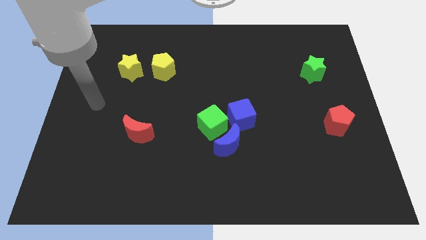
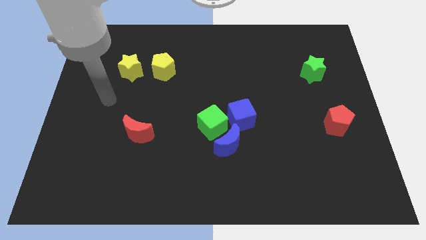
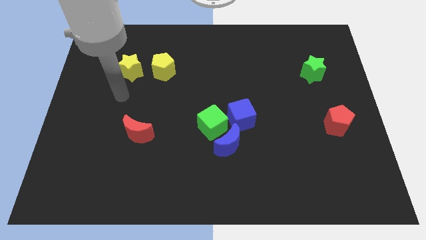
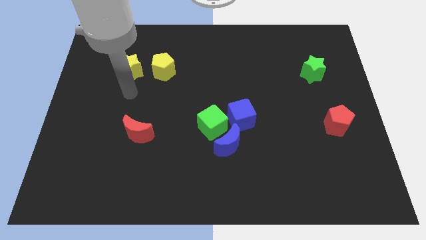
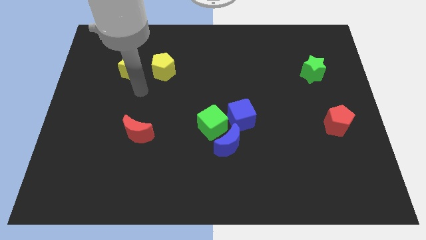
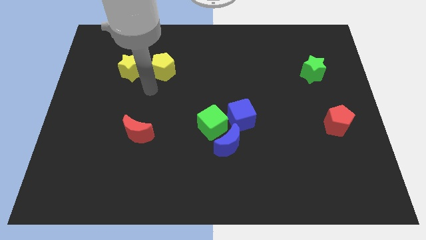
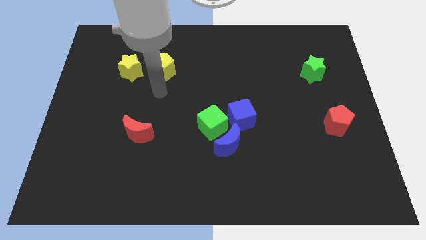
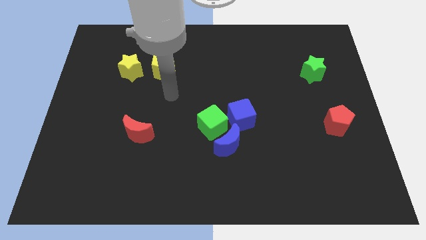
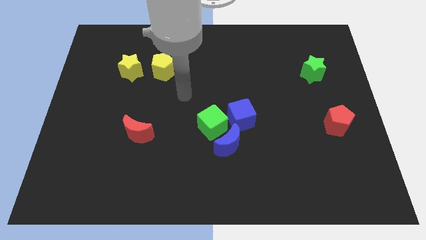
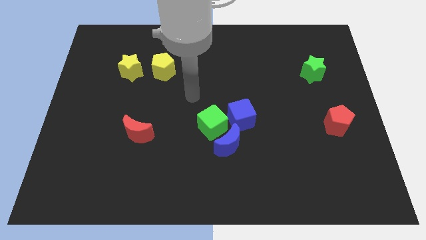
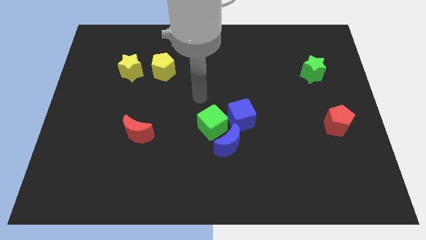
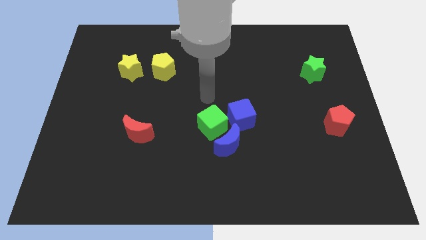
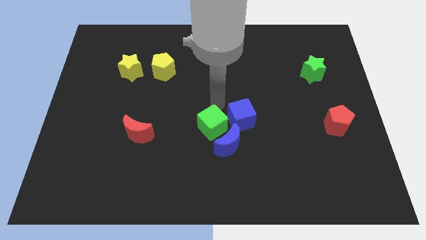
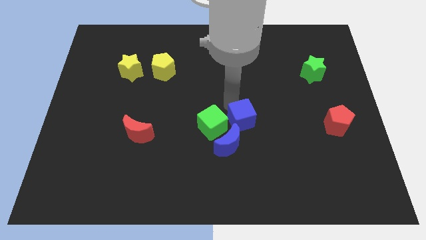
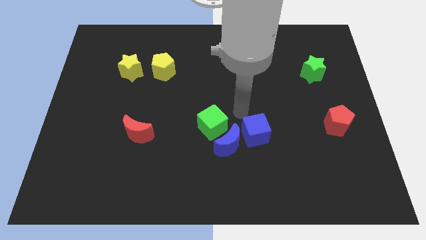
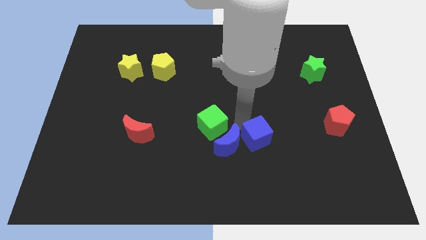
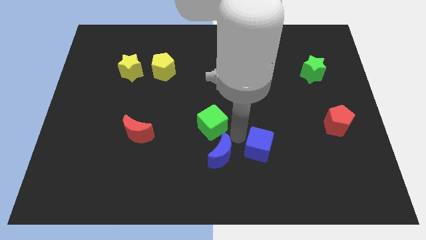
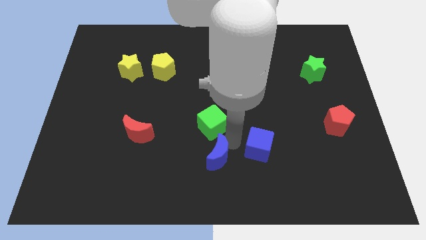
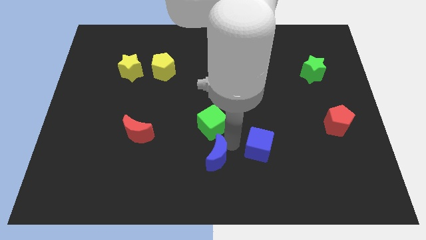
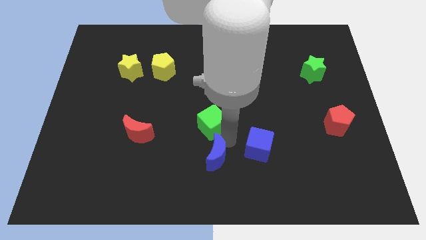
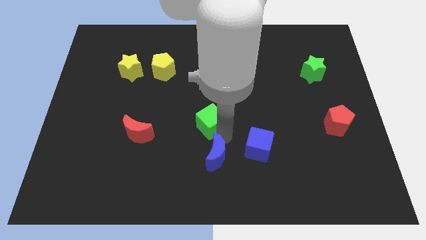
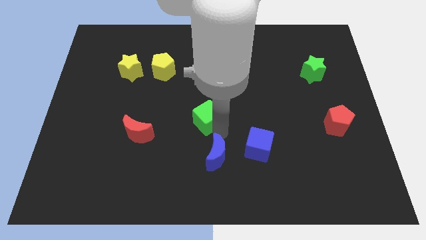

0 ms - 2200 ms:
separate the green cube from the blue moon and blue cube

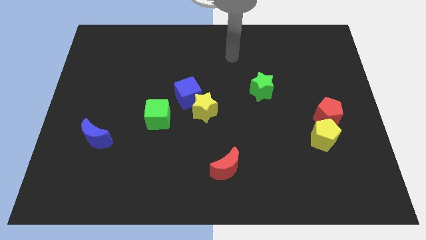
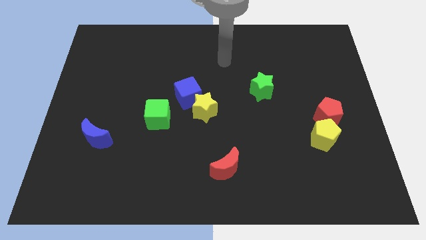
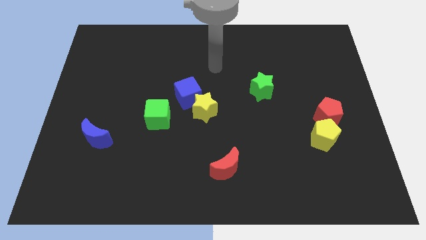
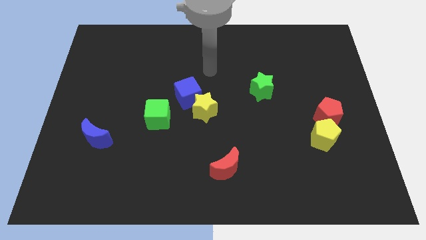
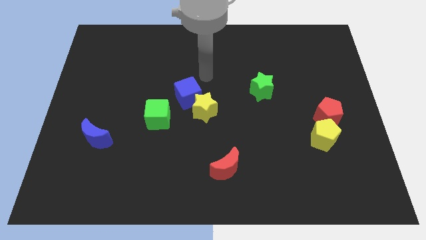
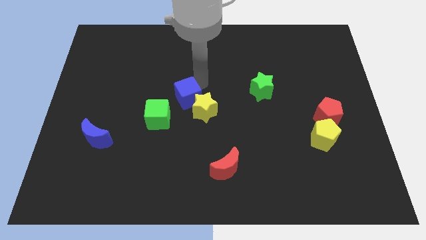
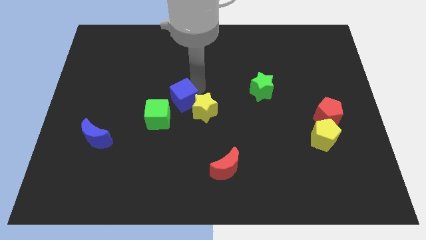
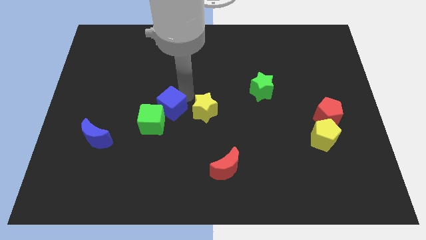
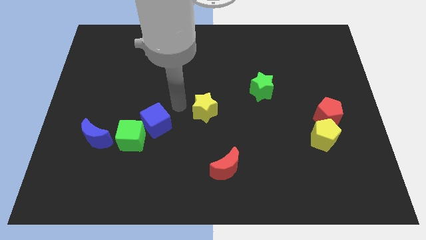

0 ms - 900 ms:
pull the yellow star apart from the blue cube

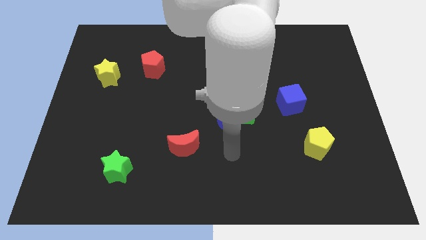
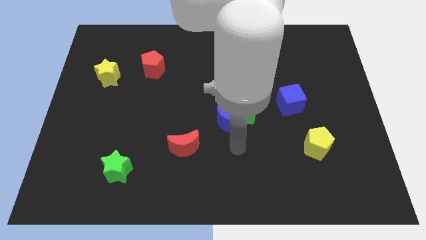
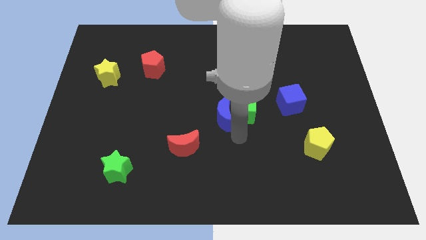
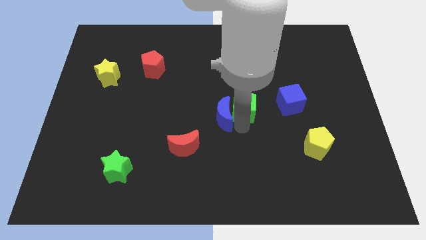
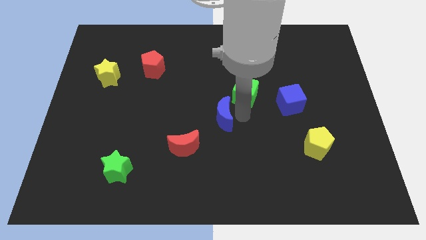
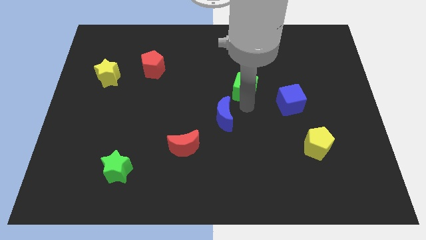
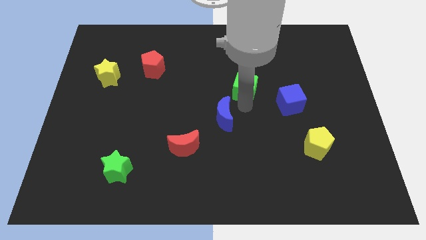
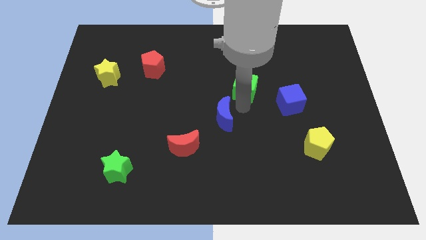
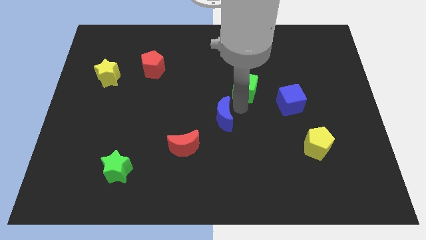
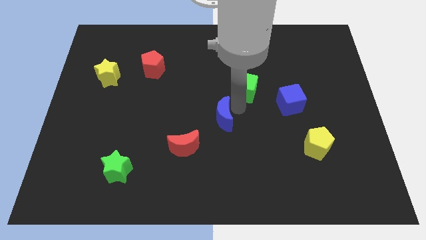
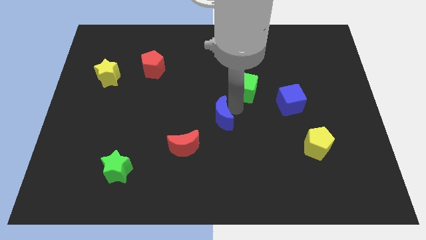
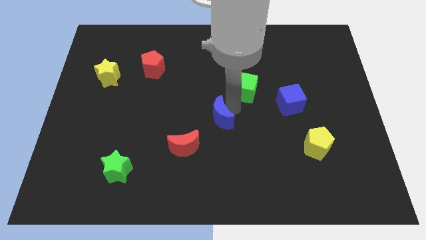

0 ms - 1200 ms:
pull the blue moon apart from the green cube

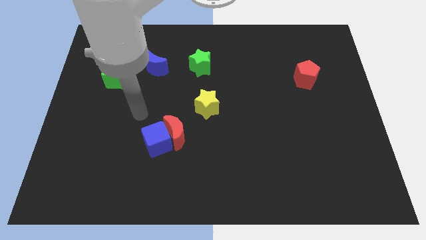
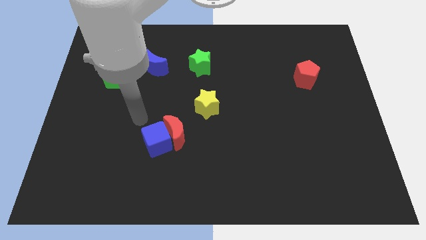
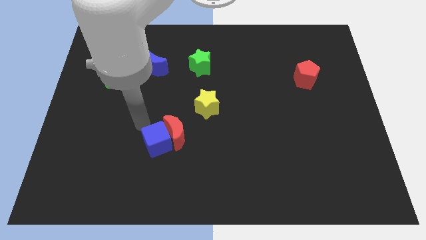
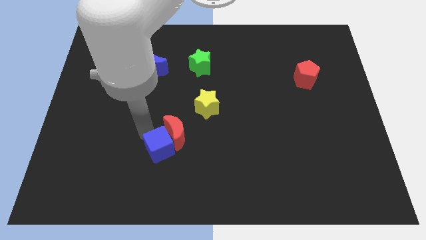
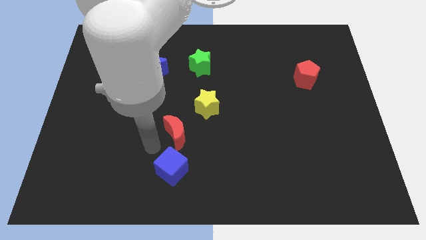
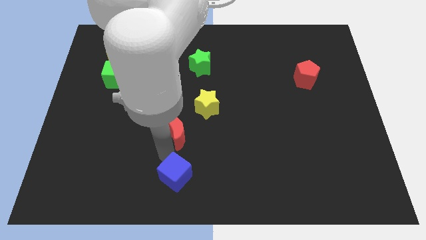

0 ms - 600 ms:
pull the red moon apart from the blue cube

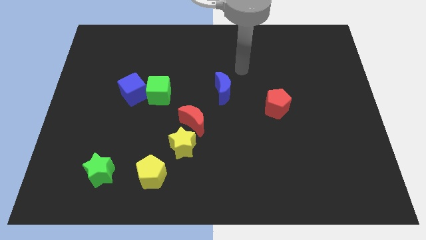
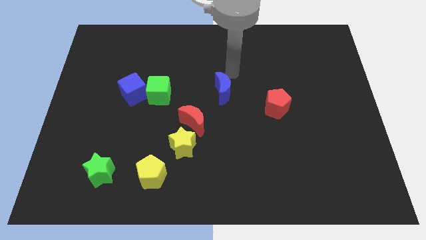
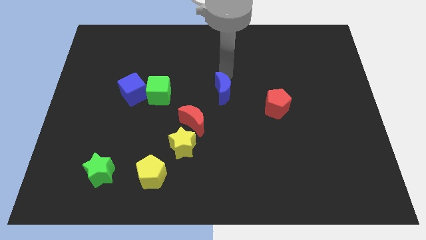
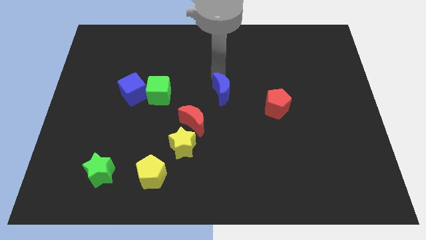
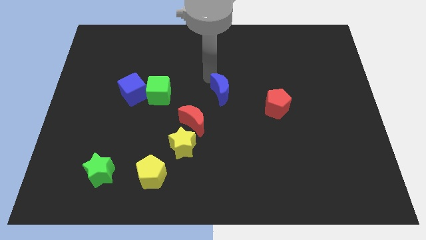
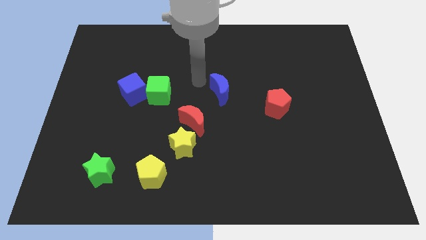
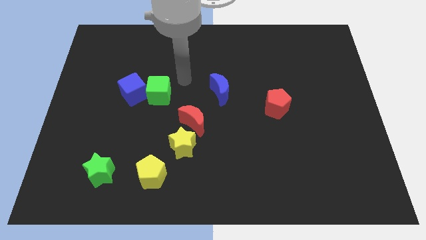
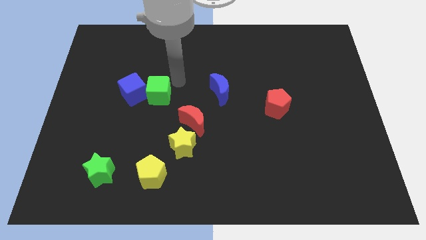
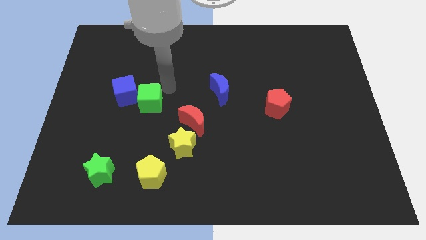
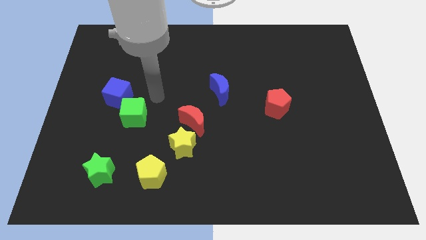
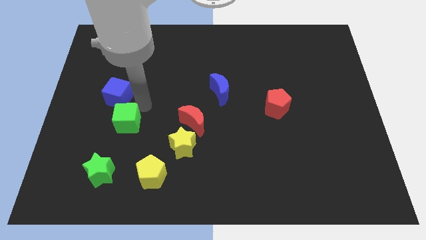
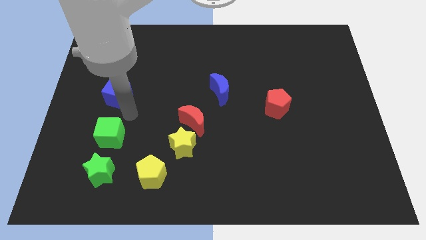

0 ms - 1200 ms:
move the blue cube away from the green cube

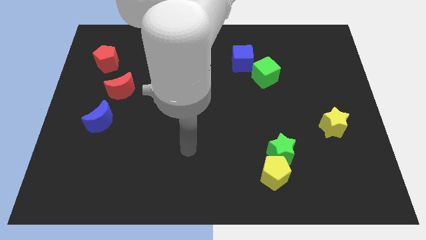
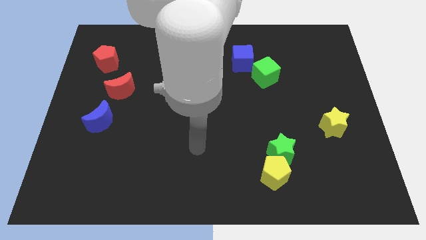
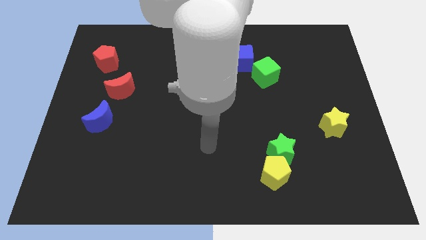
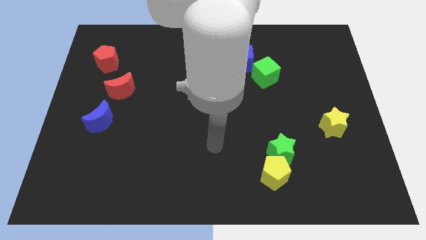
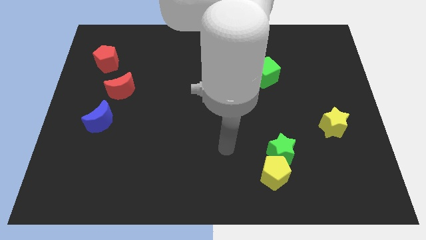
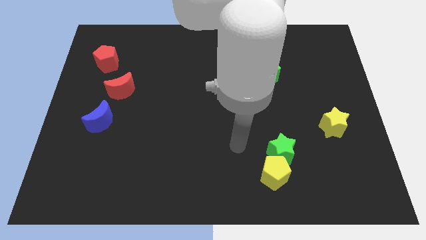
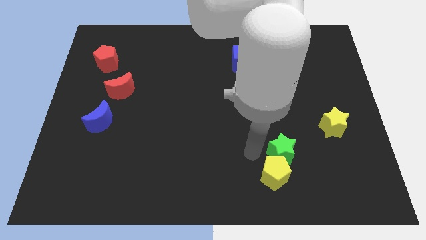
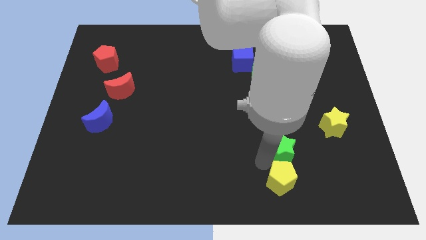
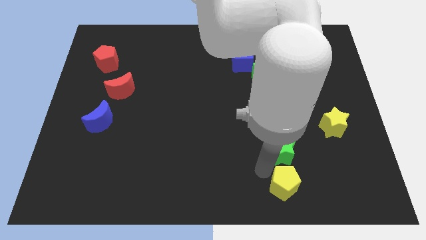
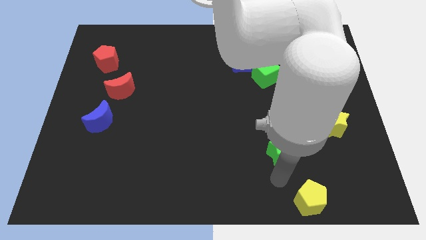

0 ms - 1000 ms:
move the green star away from the yellow pentagon

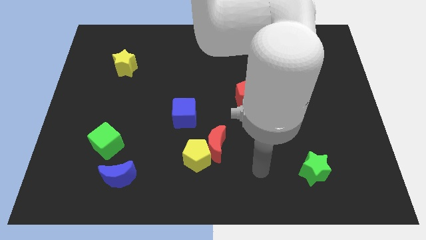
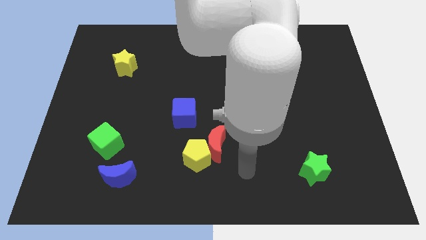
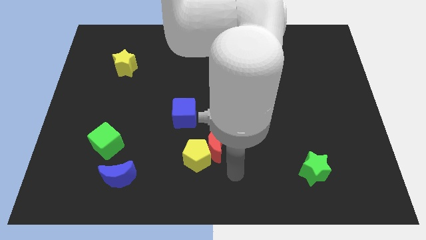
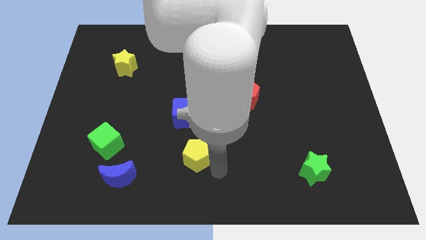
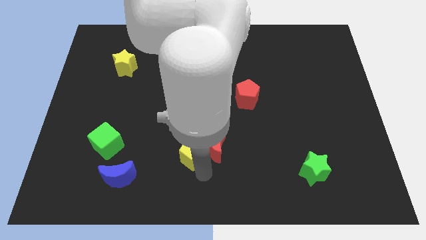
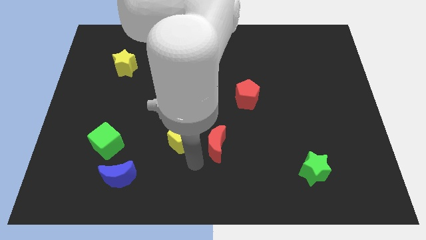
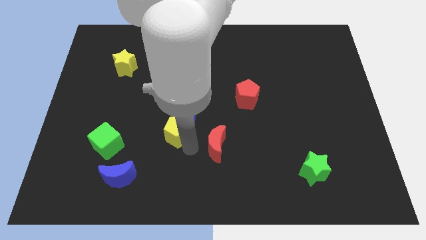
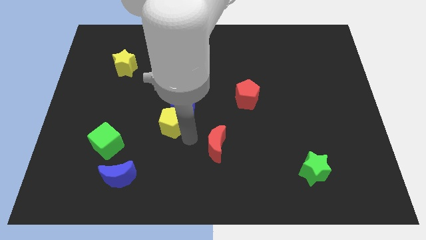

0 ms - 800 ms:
pull the red moon apart from the yellow pentagon

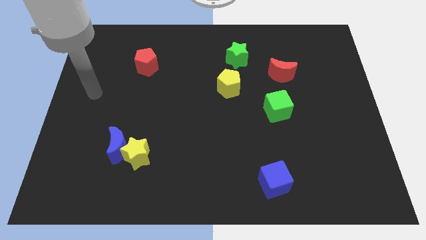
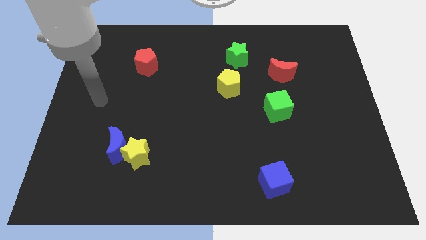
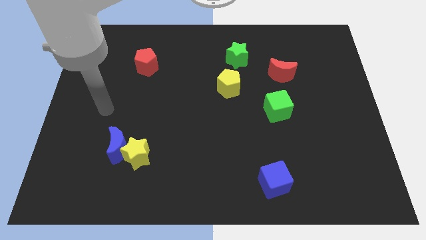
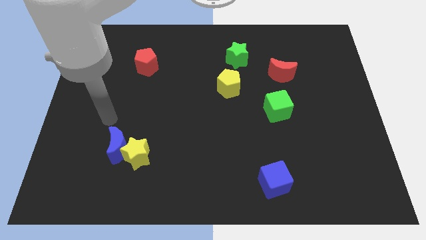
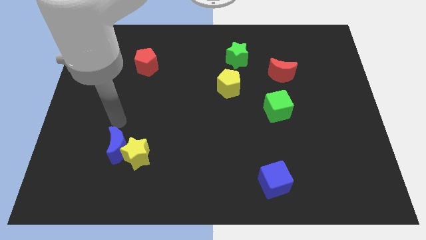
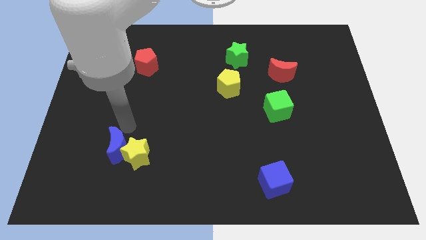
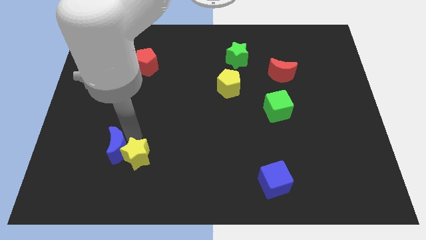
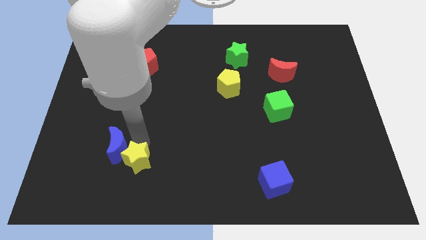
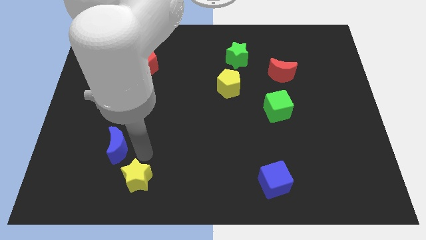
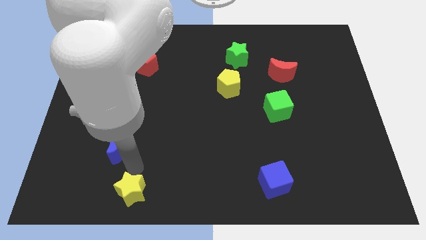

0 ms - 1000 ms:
move the blue moon away from the yellow star

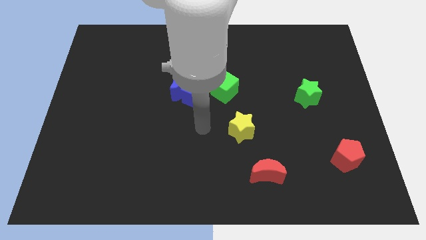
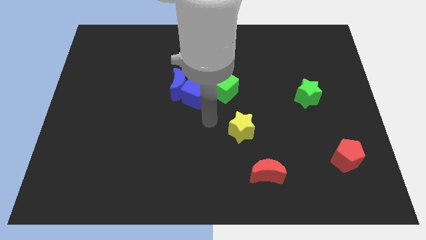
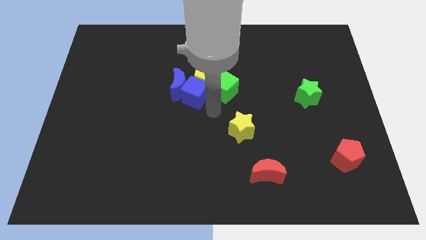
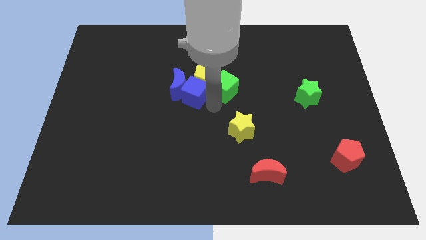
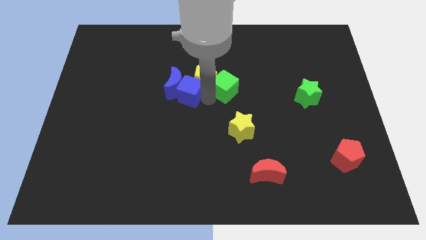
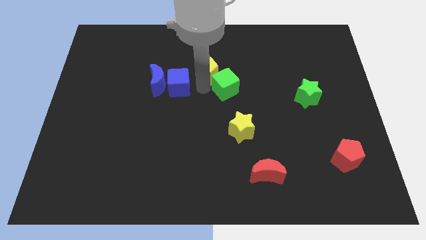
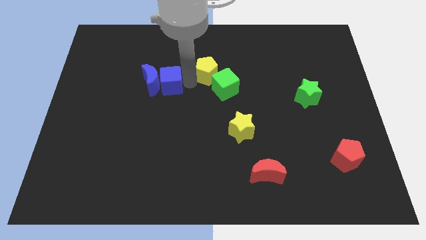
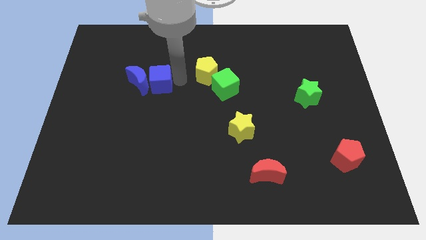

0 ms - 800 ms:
pull the blue moon apart from the blue cube and yellow pentagon
